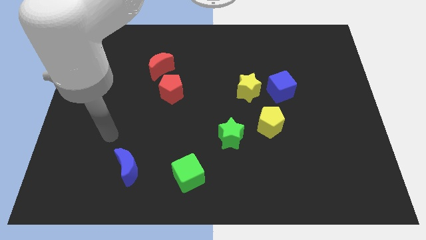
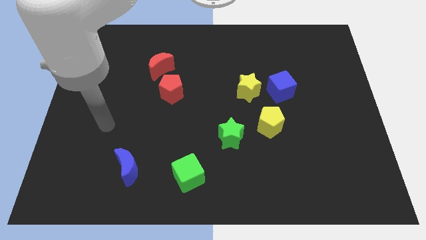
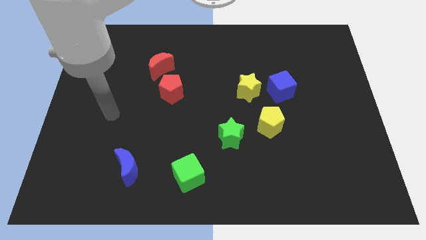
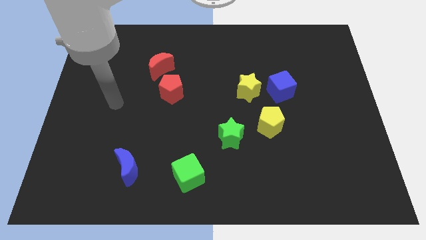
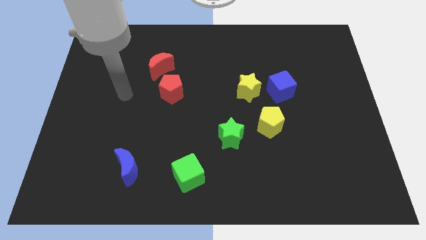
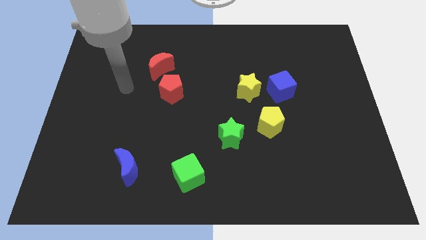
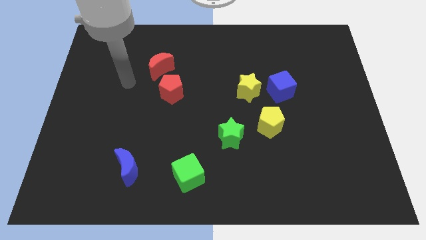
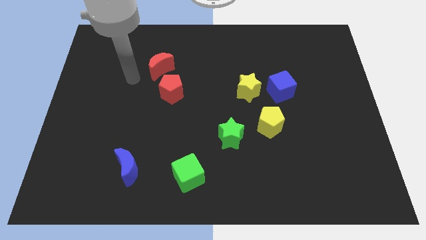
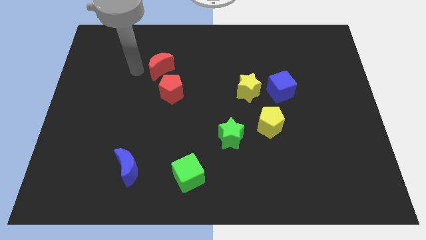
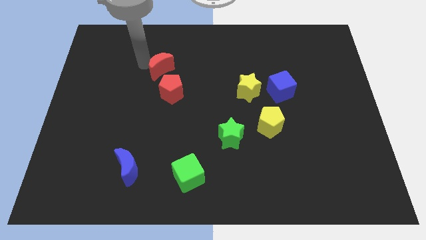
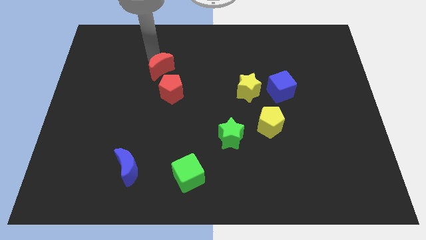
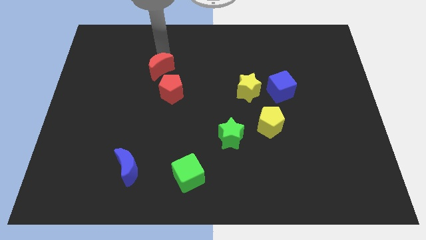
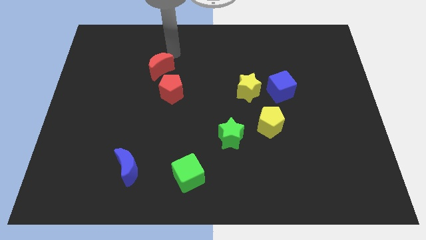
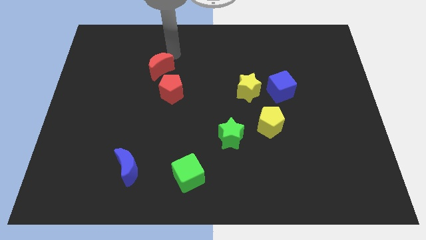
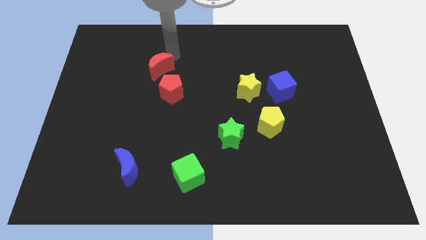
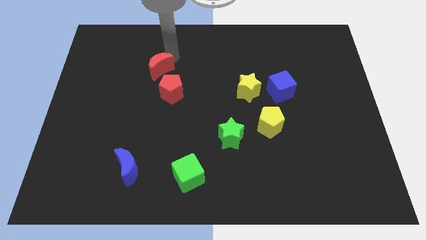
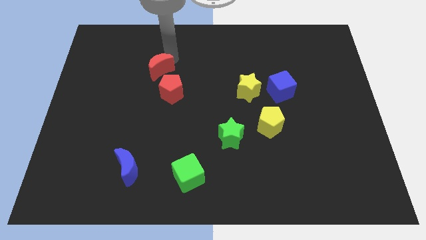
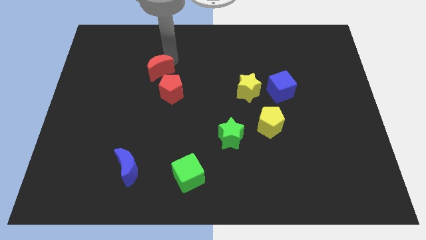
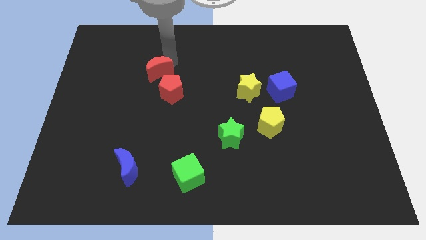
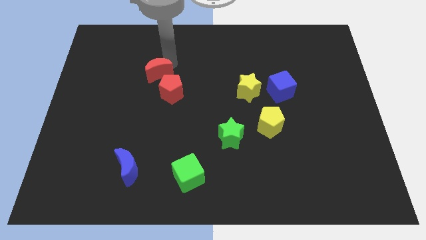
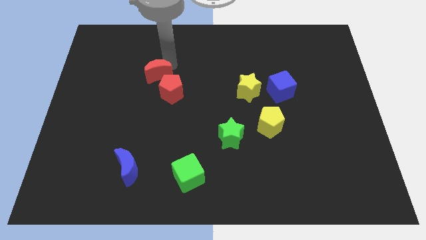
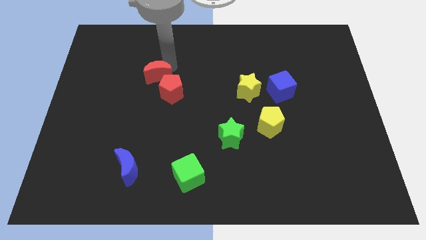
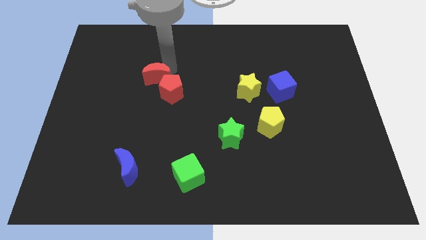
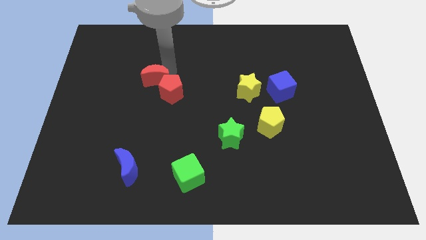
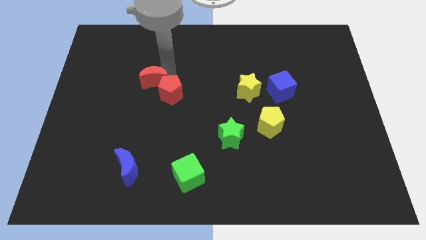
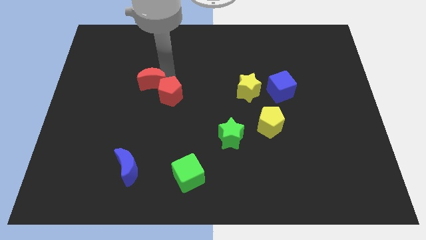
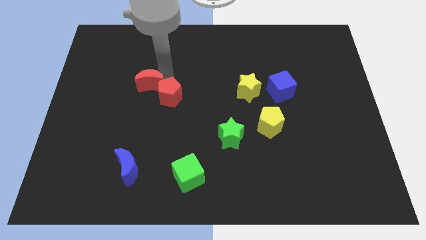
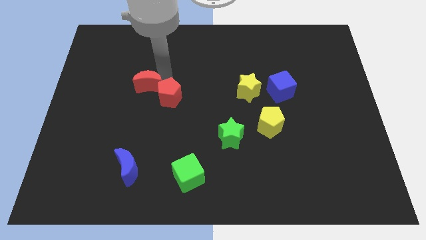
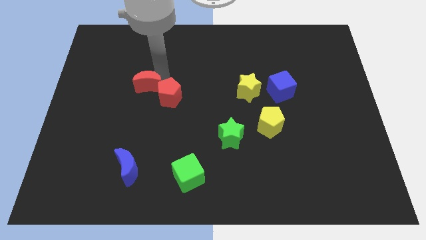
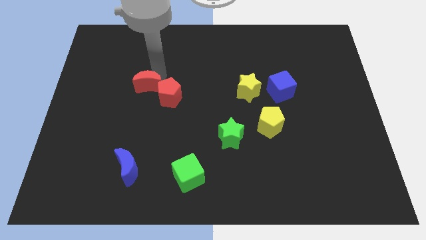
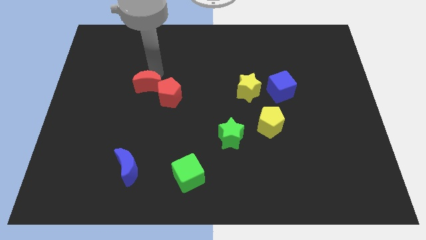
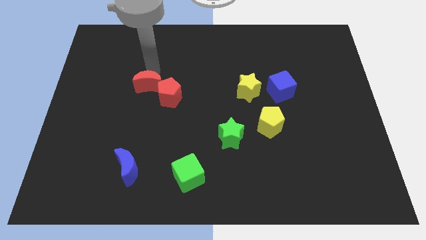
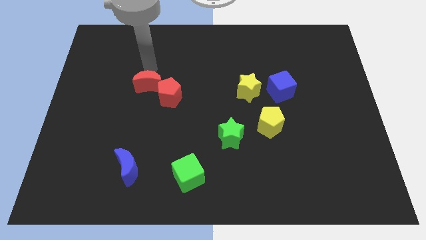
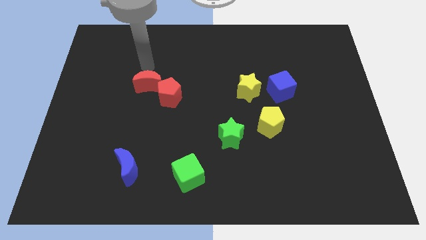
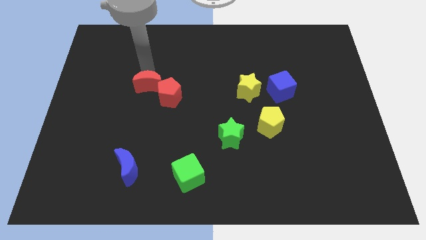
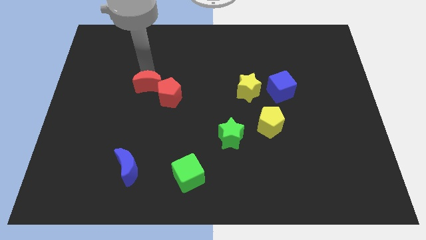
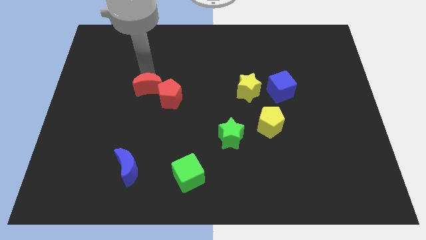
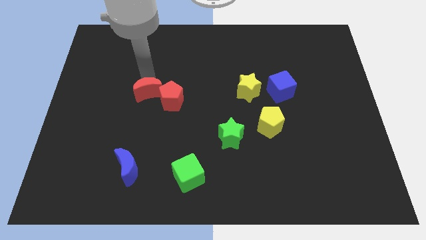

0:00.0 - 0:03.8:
slide the red moon down a little

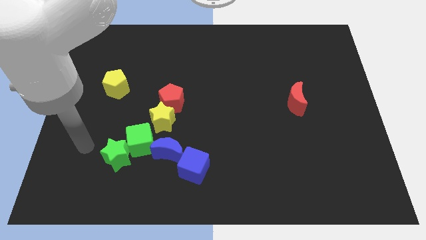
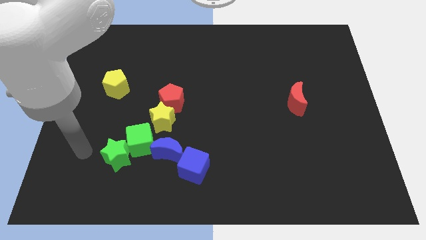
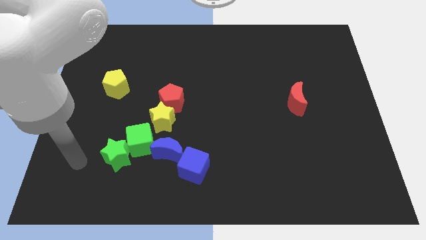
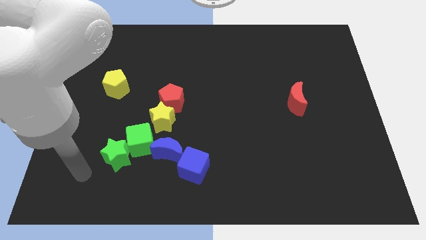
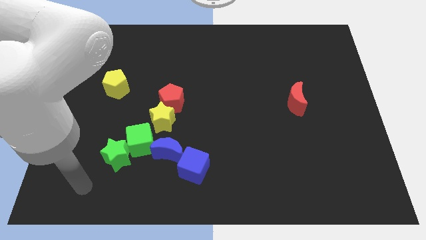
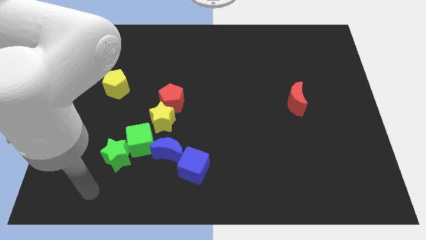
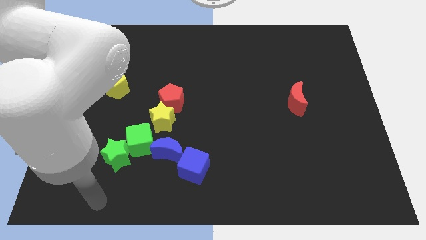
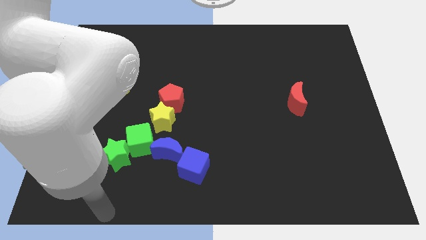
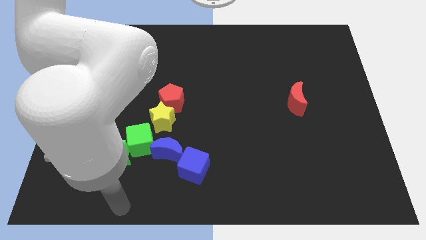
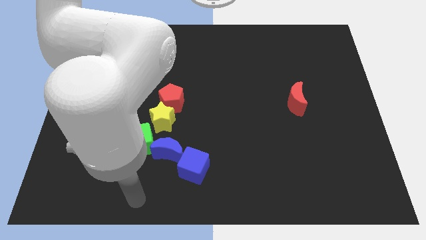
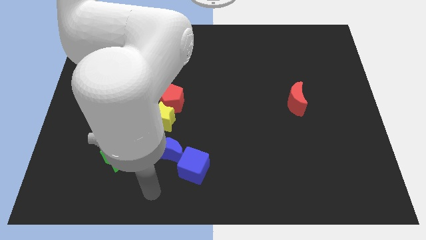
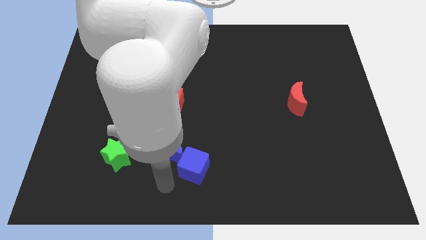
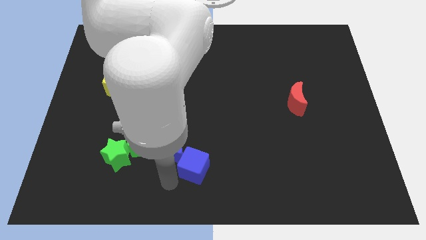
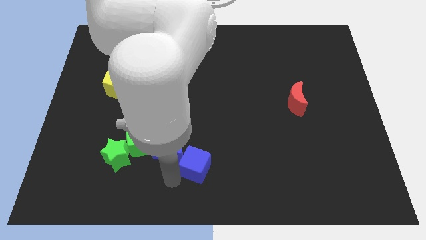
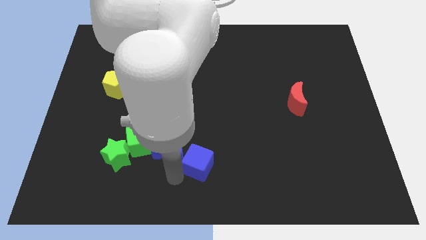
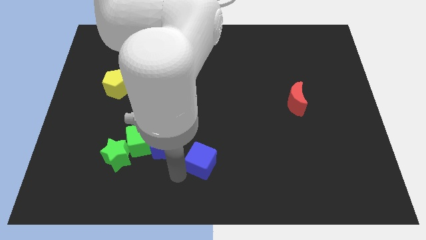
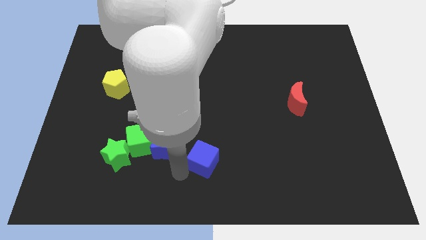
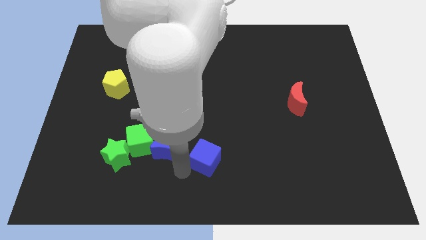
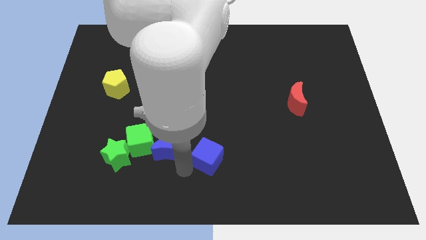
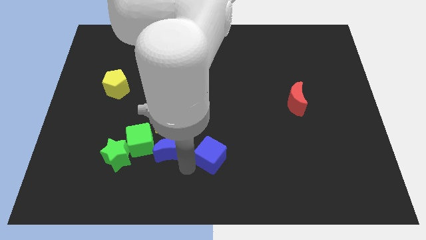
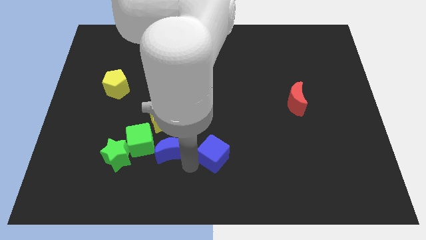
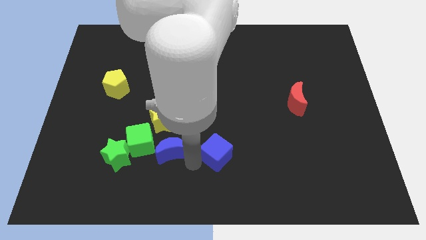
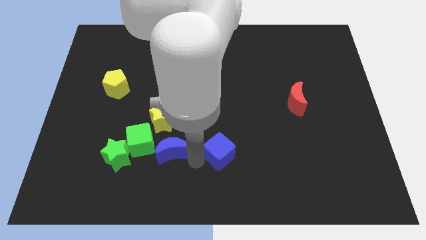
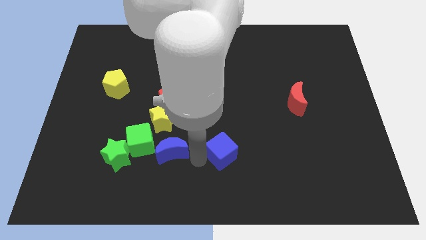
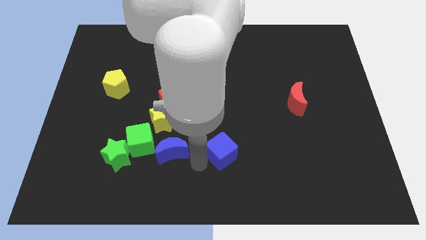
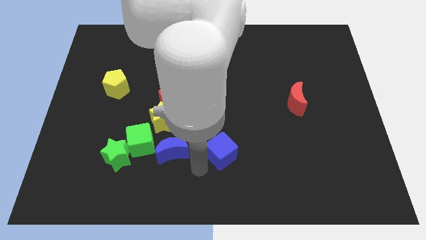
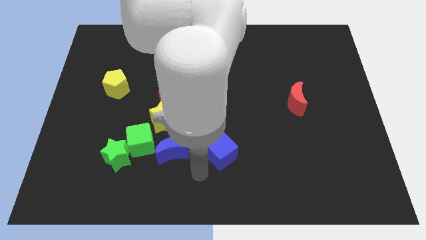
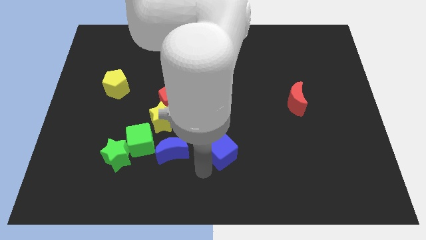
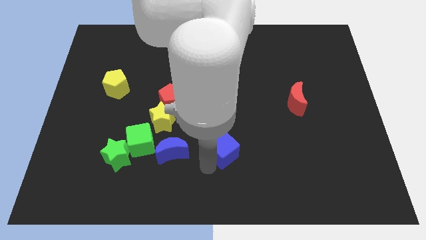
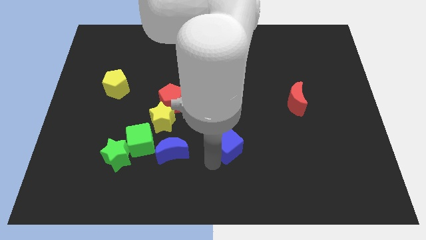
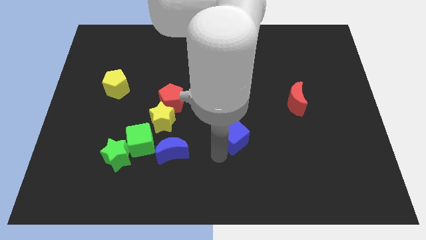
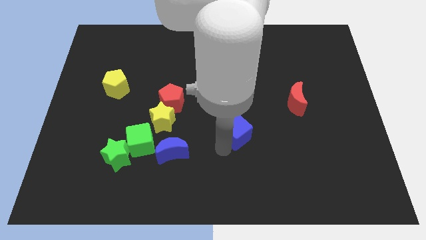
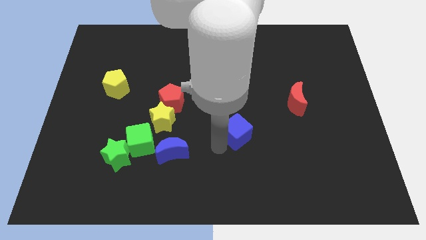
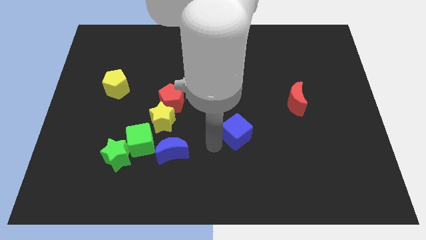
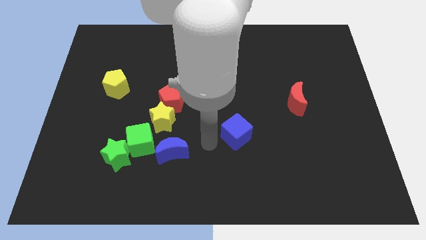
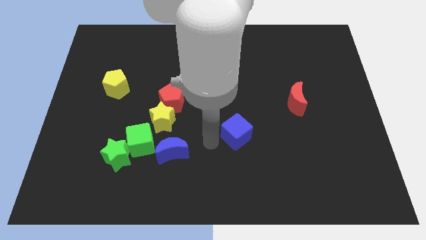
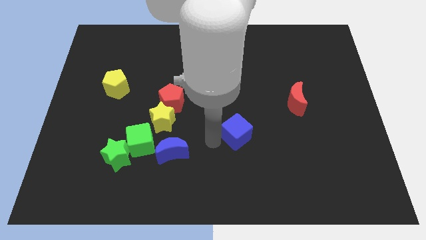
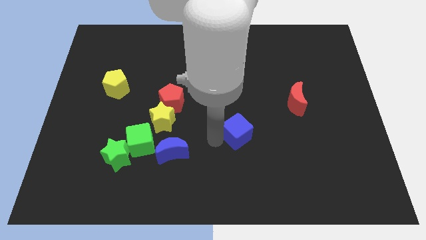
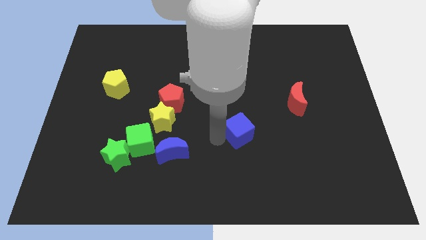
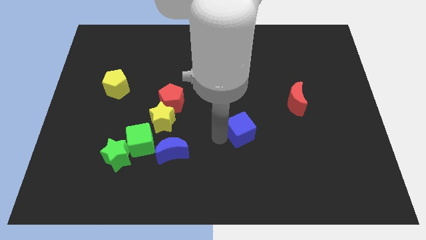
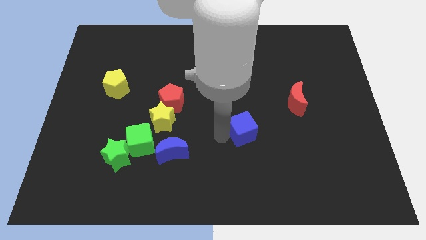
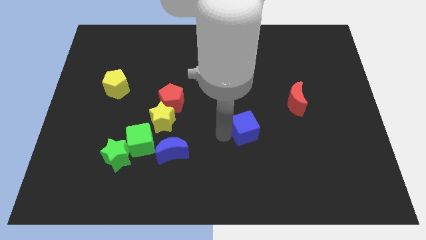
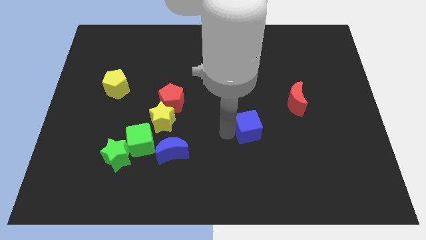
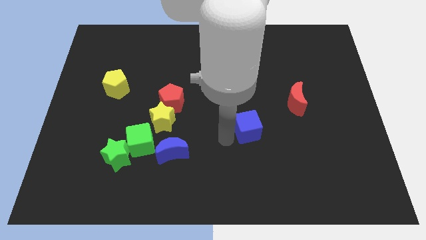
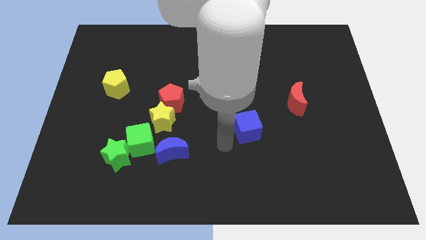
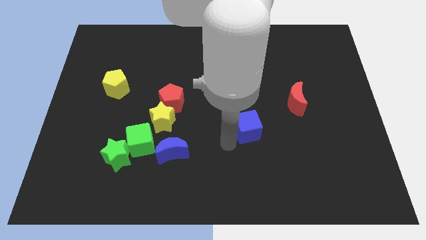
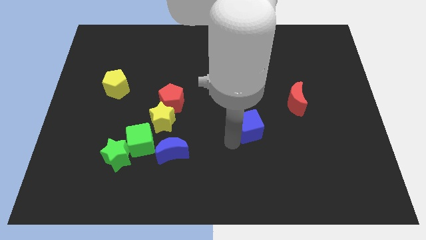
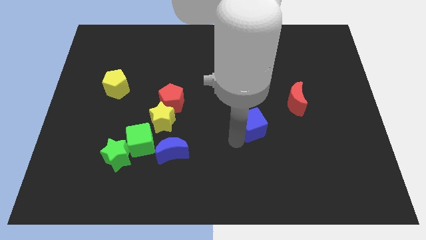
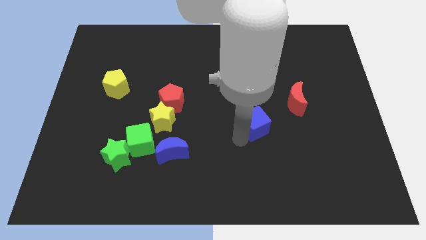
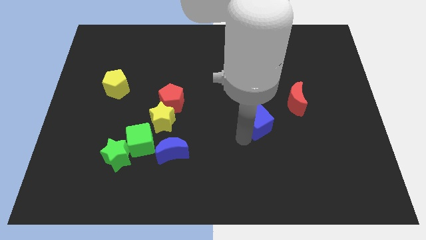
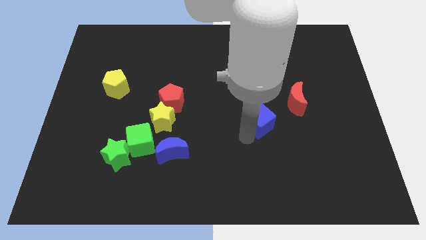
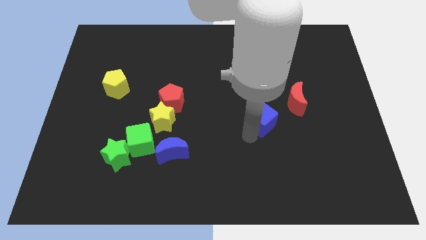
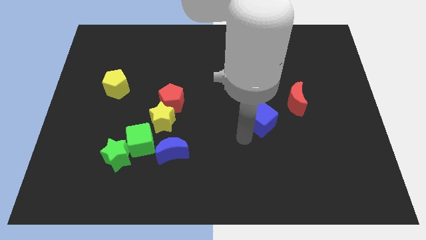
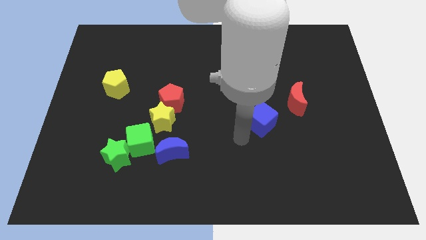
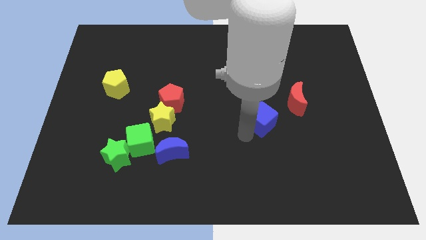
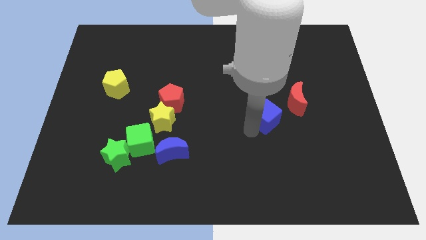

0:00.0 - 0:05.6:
move the blue cube up and right
